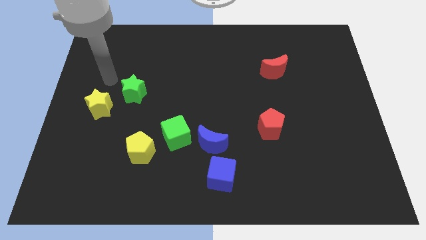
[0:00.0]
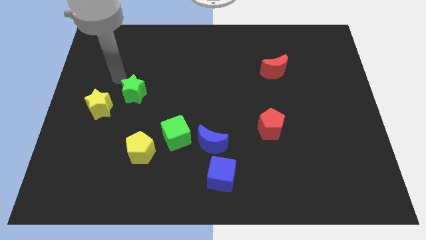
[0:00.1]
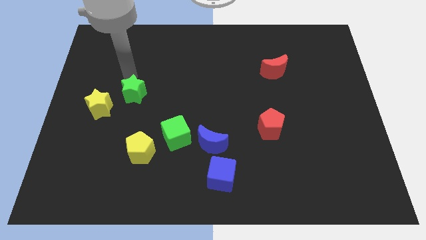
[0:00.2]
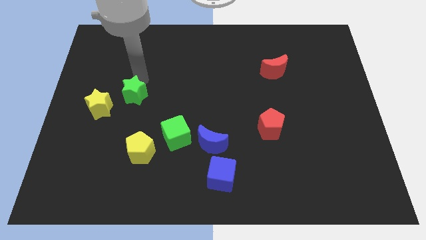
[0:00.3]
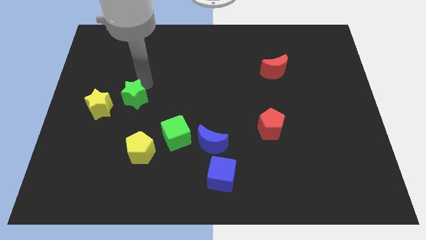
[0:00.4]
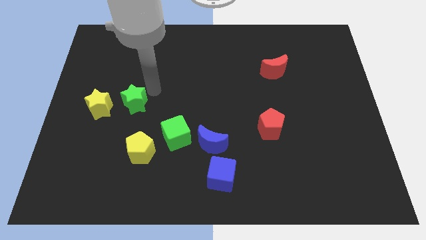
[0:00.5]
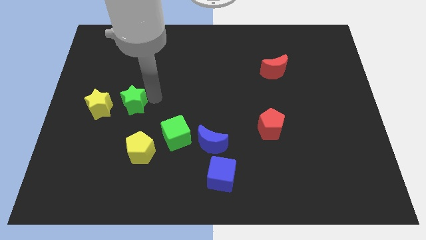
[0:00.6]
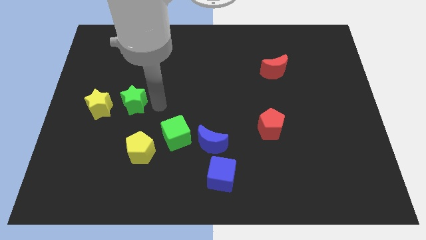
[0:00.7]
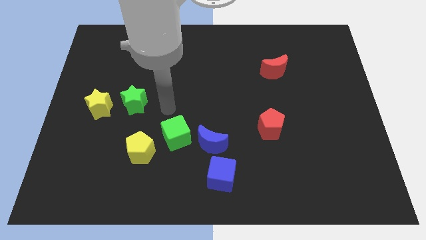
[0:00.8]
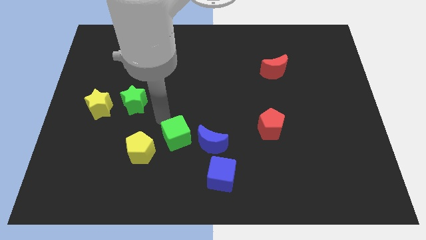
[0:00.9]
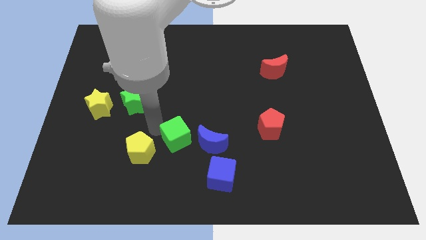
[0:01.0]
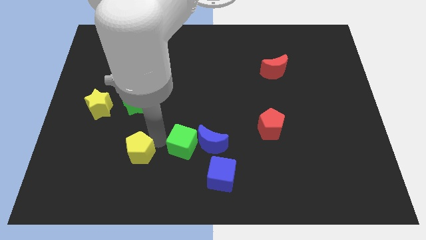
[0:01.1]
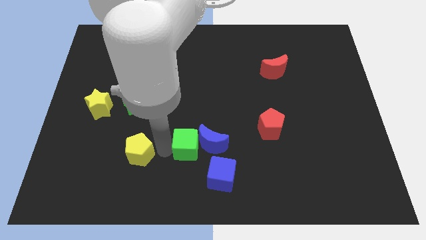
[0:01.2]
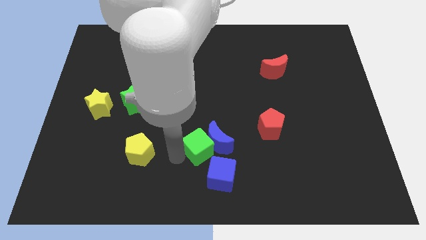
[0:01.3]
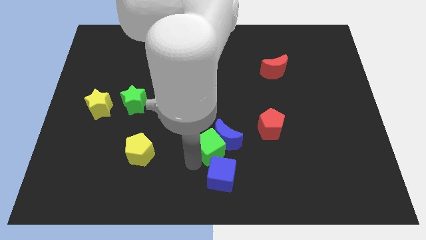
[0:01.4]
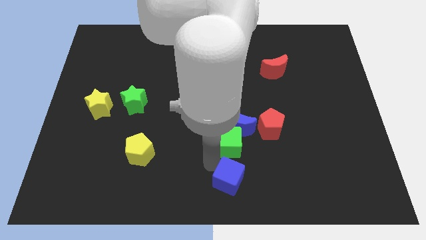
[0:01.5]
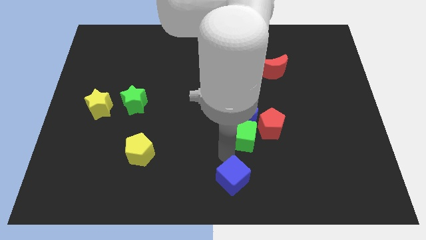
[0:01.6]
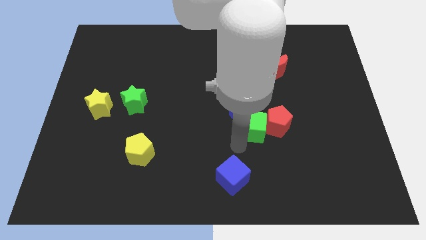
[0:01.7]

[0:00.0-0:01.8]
move the blue moon away from the green cube and blue cube

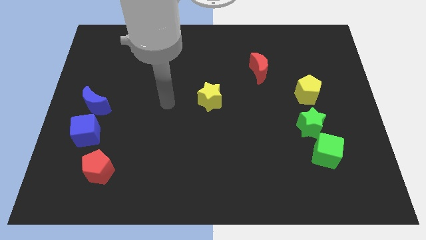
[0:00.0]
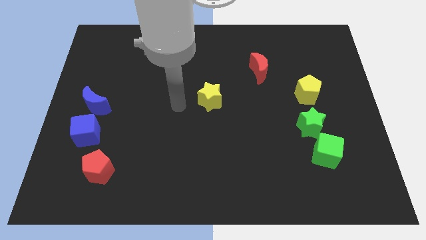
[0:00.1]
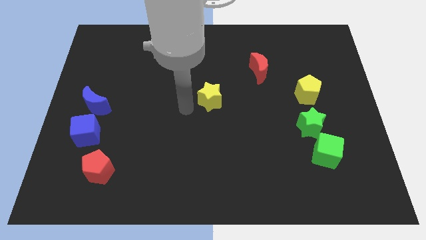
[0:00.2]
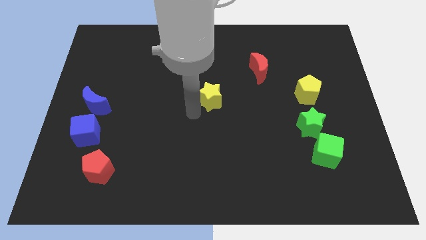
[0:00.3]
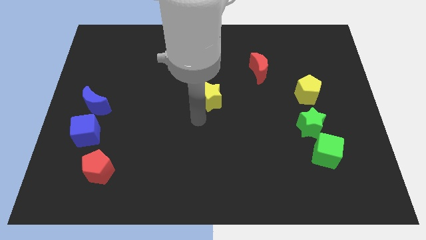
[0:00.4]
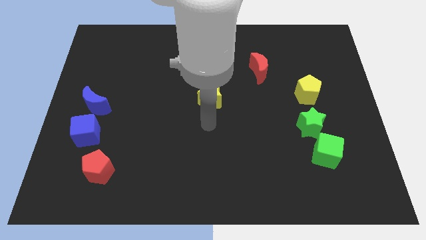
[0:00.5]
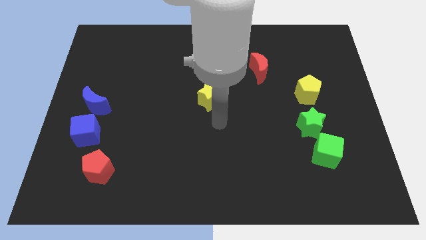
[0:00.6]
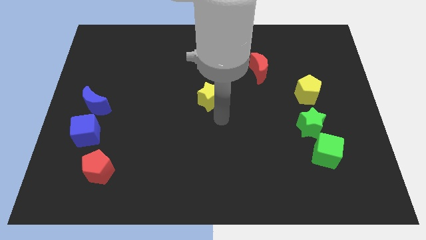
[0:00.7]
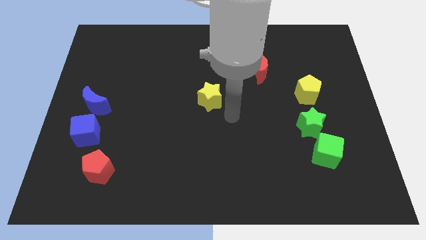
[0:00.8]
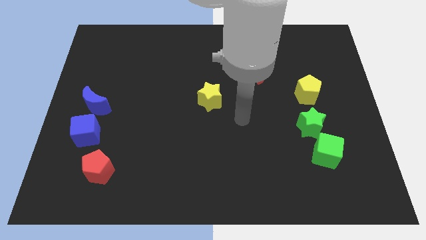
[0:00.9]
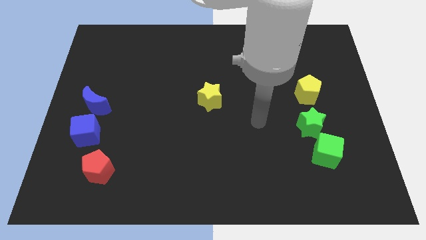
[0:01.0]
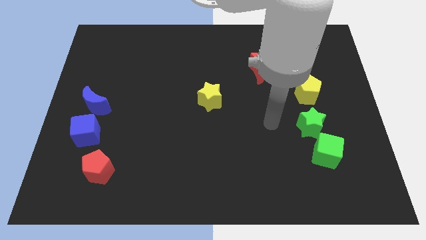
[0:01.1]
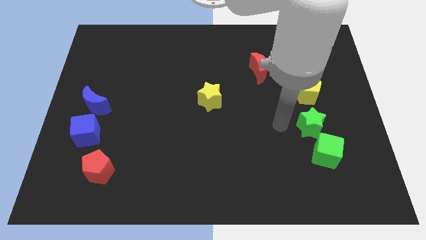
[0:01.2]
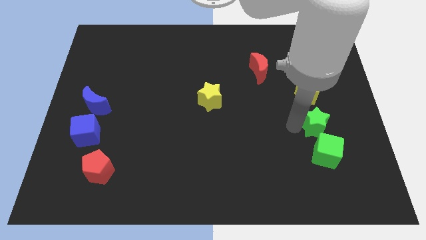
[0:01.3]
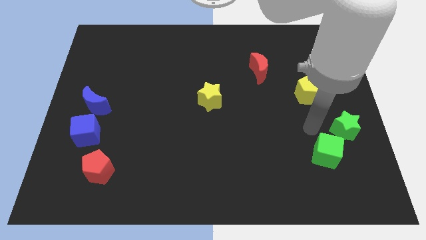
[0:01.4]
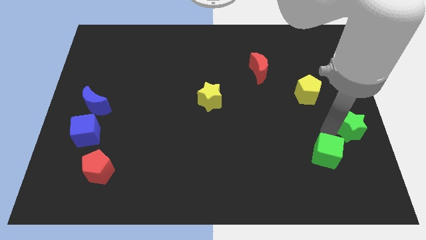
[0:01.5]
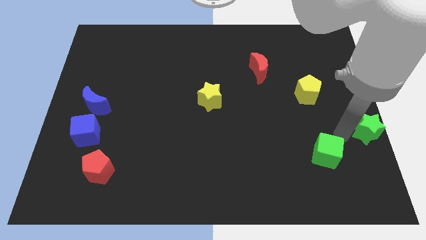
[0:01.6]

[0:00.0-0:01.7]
separate the green cube from the green star

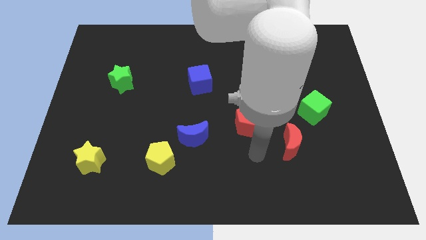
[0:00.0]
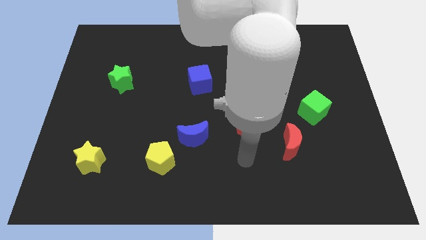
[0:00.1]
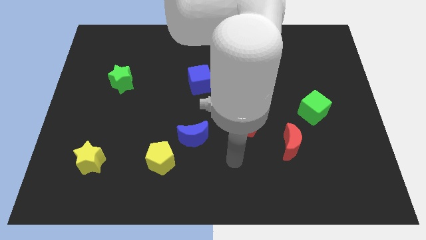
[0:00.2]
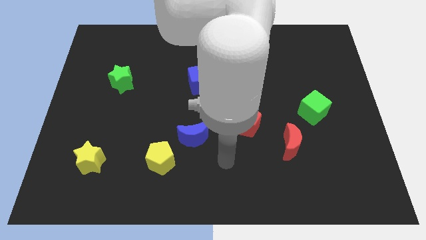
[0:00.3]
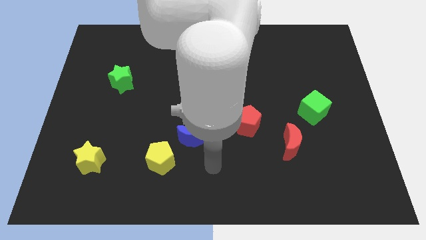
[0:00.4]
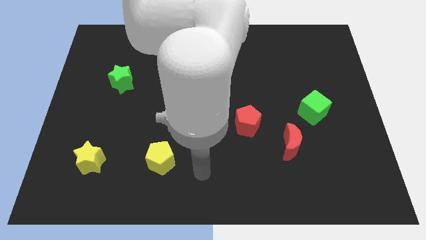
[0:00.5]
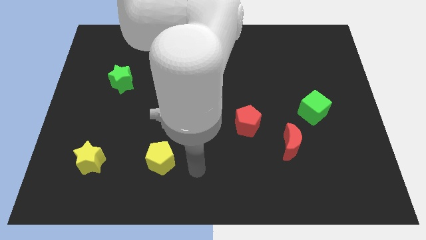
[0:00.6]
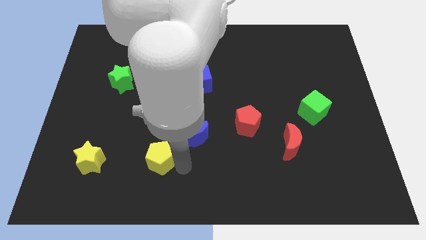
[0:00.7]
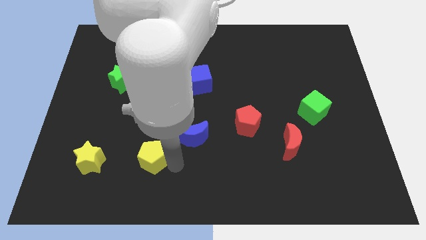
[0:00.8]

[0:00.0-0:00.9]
separate the blue moon from the yellow pentagon

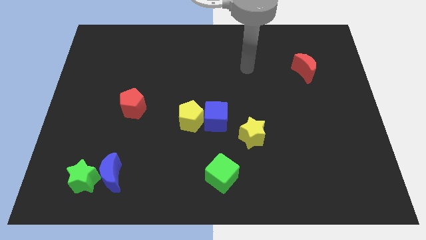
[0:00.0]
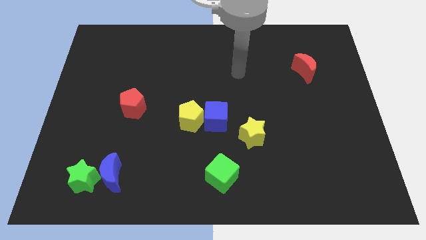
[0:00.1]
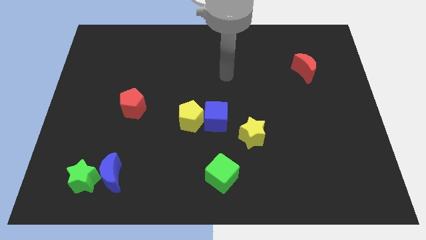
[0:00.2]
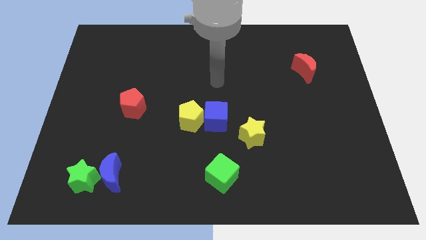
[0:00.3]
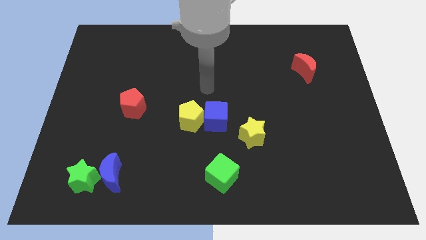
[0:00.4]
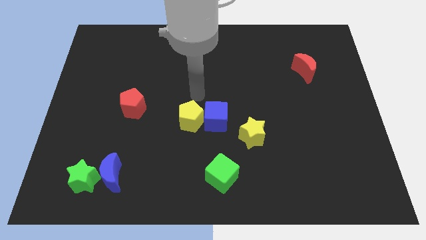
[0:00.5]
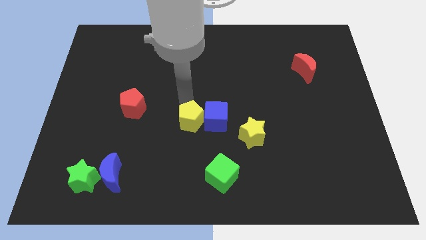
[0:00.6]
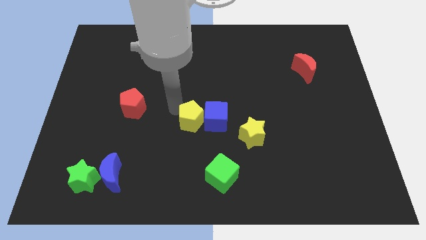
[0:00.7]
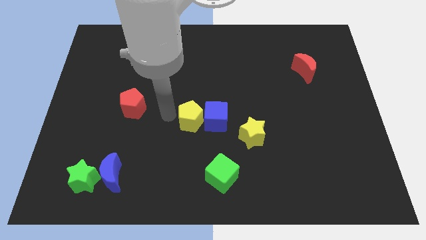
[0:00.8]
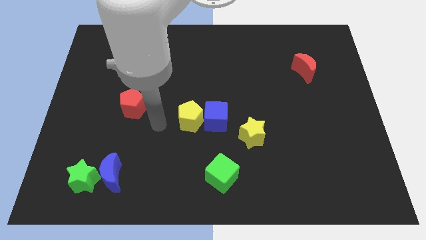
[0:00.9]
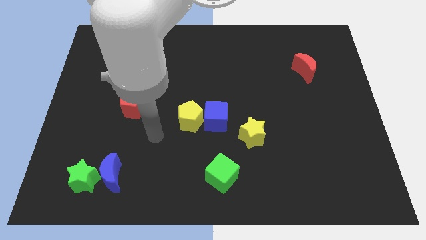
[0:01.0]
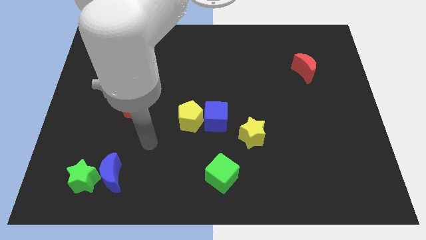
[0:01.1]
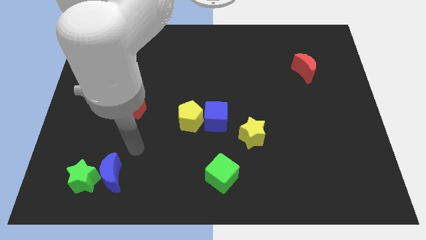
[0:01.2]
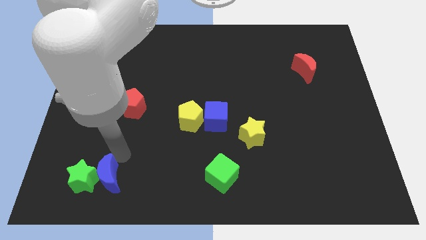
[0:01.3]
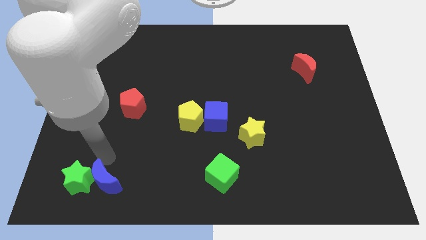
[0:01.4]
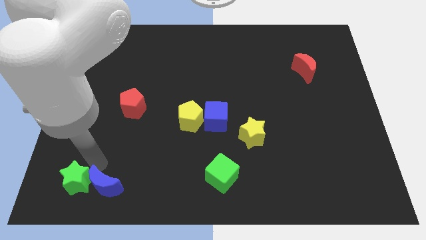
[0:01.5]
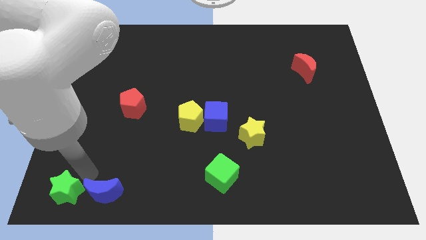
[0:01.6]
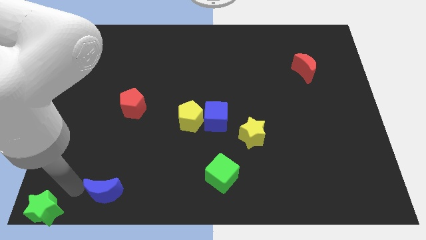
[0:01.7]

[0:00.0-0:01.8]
separate the blue moon from the green star

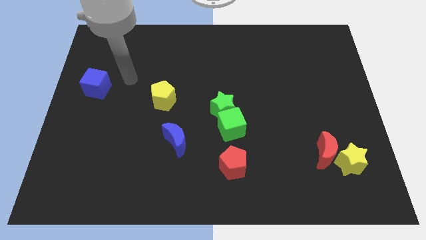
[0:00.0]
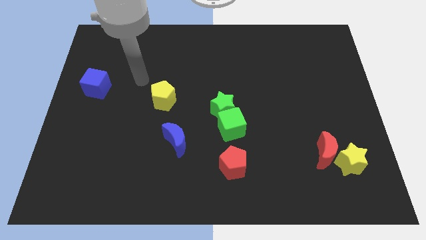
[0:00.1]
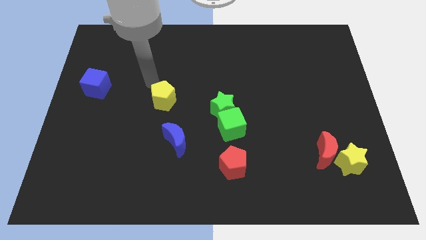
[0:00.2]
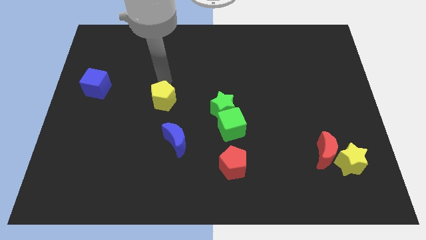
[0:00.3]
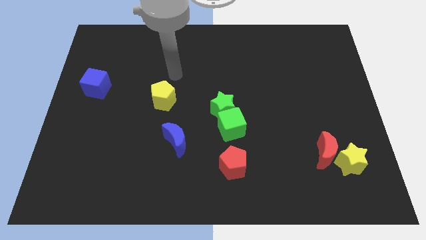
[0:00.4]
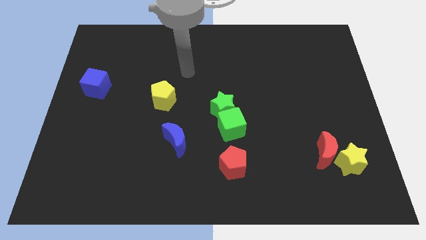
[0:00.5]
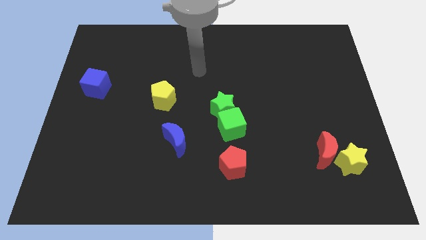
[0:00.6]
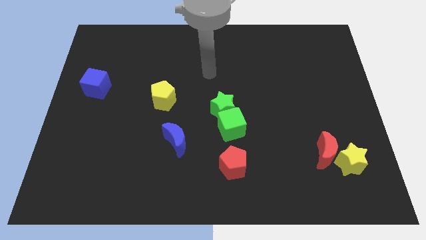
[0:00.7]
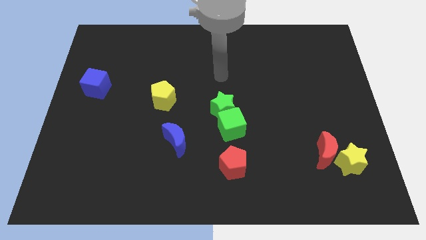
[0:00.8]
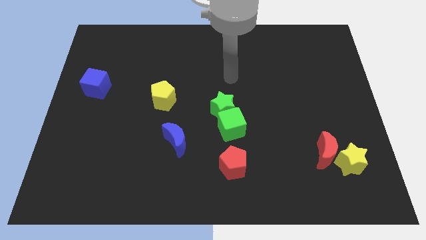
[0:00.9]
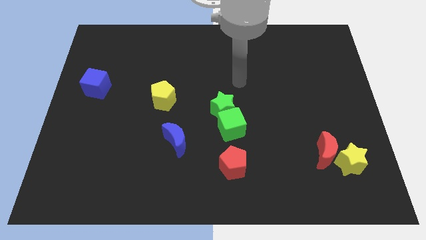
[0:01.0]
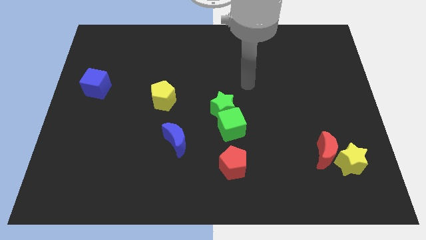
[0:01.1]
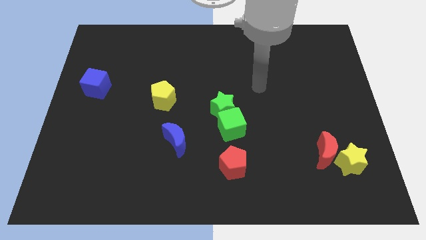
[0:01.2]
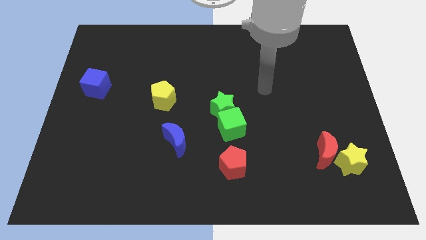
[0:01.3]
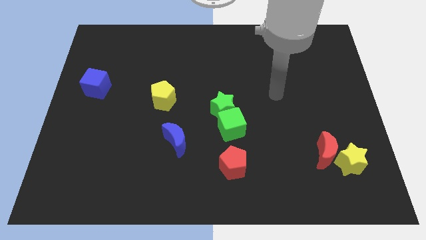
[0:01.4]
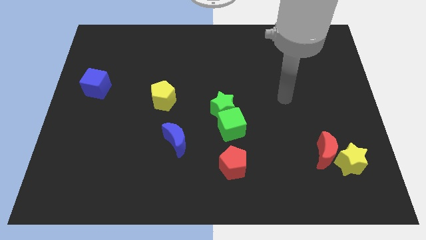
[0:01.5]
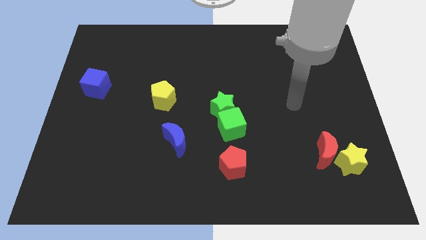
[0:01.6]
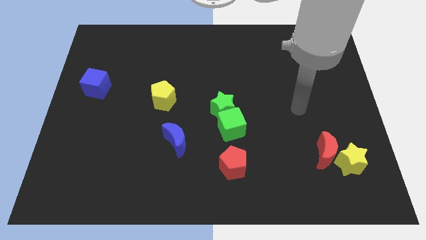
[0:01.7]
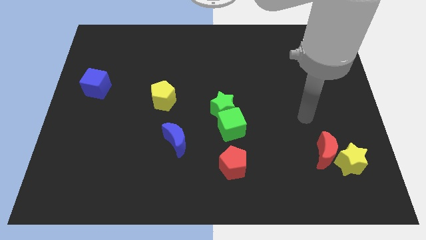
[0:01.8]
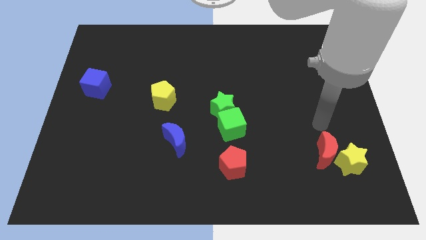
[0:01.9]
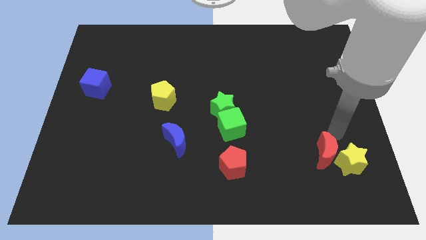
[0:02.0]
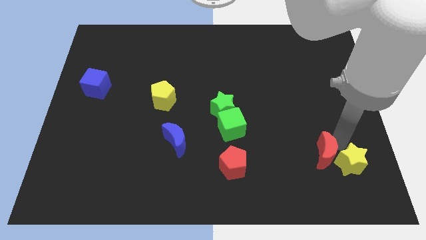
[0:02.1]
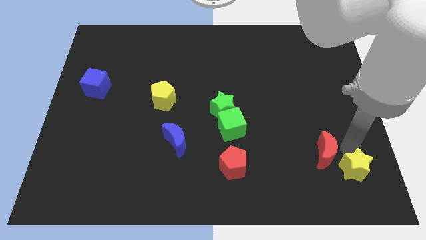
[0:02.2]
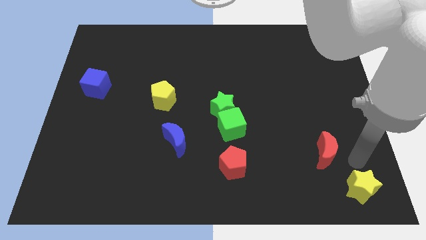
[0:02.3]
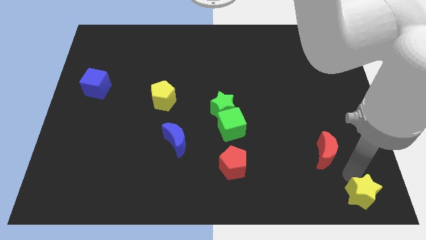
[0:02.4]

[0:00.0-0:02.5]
move the red moon away from the yellow star

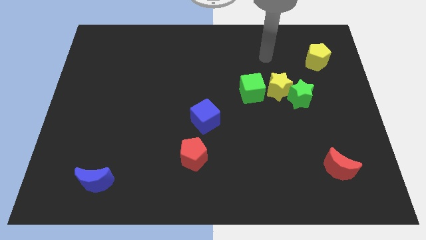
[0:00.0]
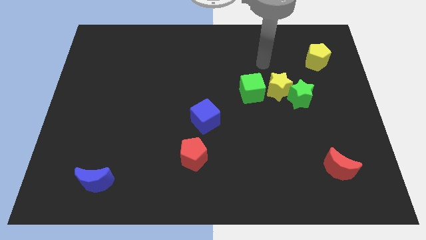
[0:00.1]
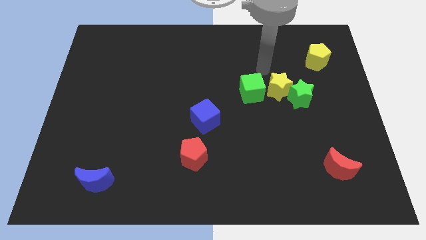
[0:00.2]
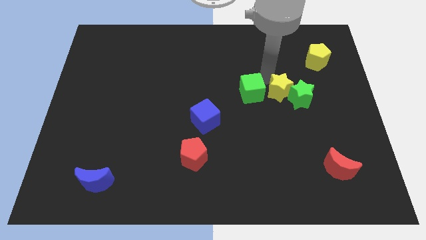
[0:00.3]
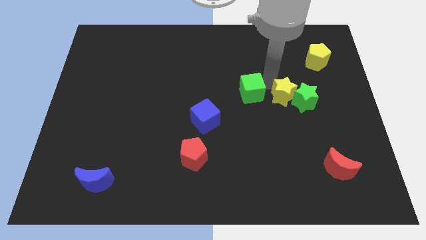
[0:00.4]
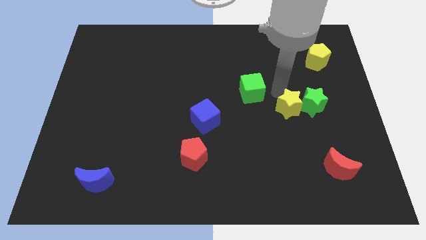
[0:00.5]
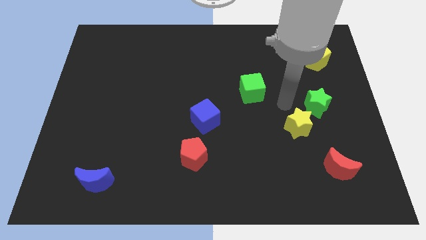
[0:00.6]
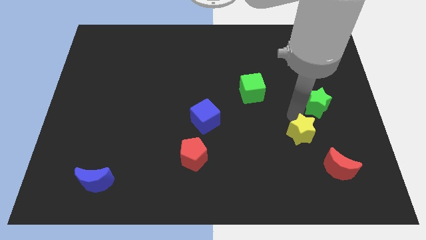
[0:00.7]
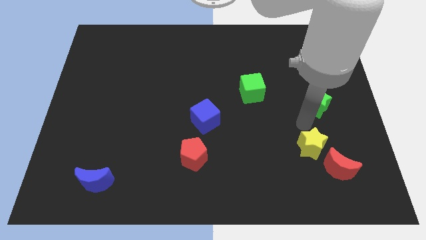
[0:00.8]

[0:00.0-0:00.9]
pull the green star apart from the yellow star
